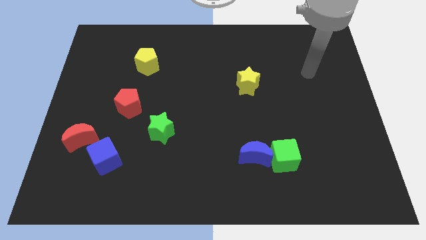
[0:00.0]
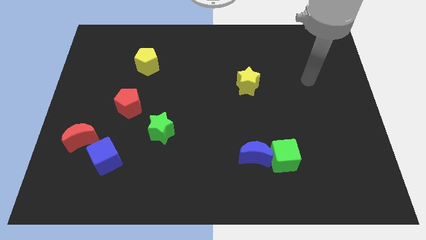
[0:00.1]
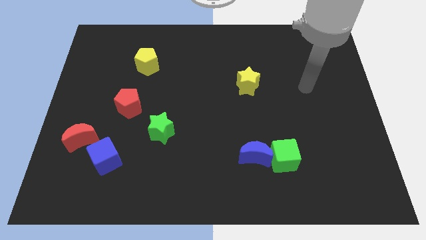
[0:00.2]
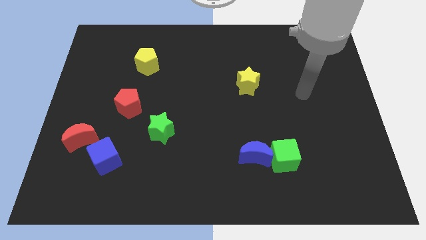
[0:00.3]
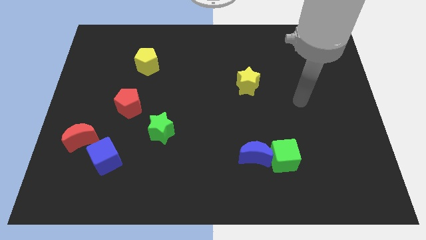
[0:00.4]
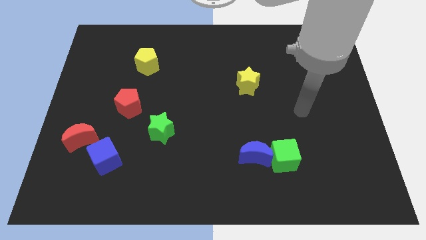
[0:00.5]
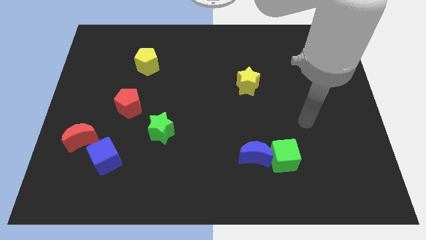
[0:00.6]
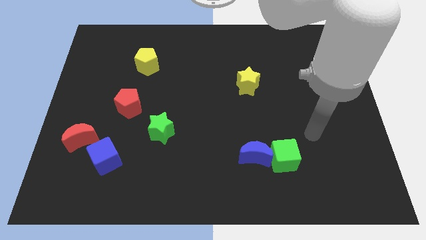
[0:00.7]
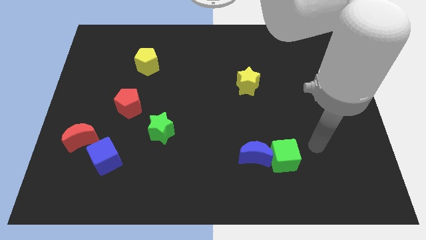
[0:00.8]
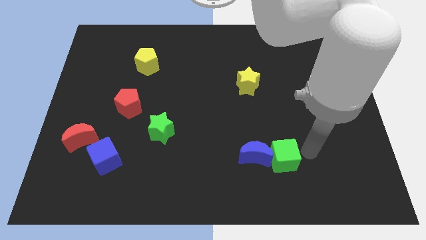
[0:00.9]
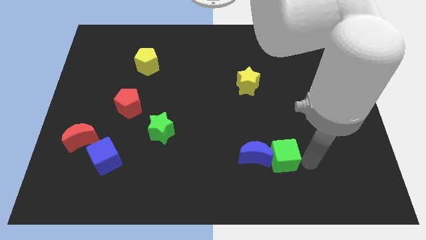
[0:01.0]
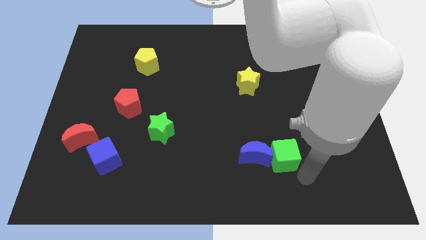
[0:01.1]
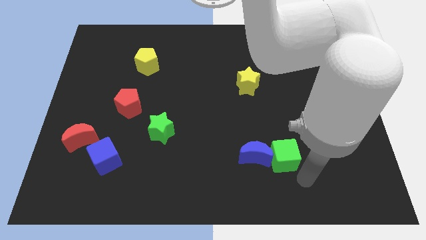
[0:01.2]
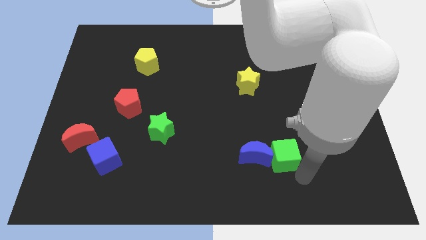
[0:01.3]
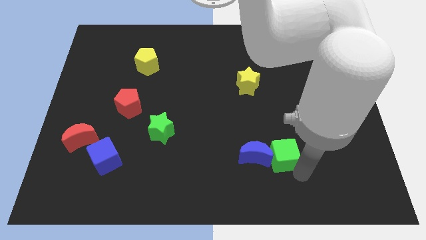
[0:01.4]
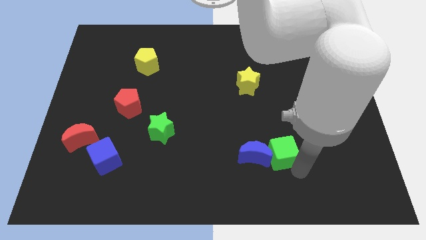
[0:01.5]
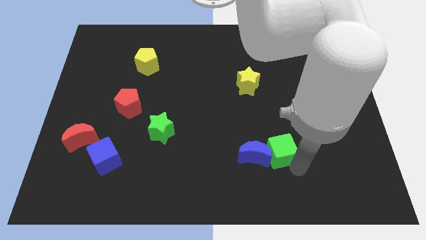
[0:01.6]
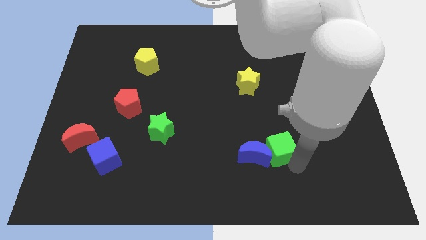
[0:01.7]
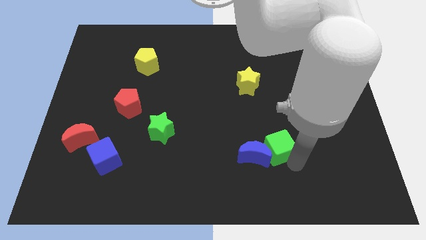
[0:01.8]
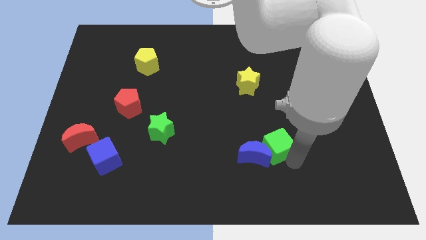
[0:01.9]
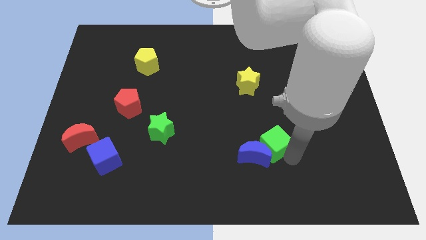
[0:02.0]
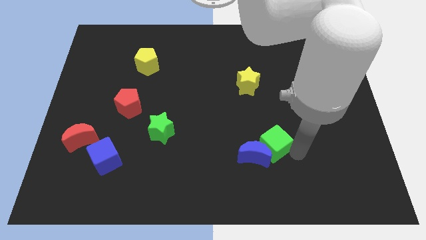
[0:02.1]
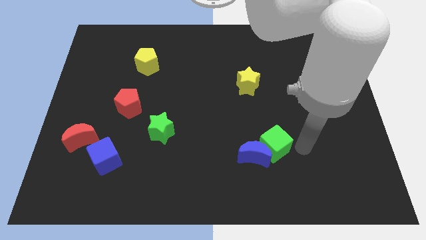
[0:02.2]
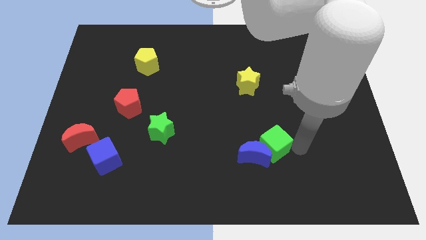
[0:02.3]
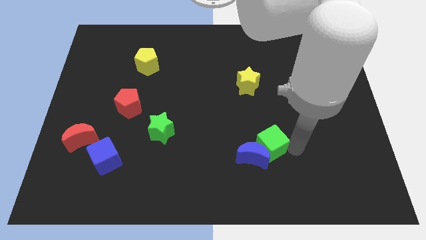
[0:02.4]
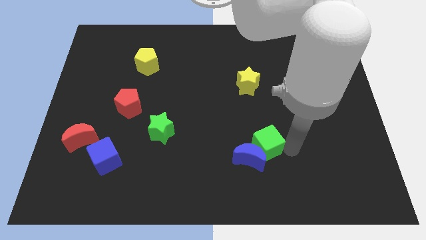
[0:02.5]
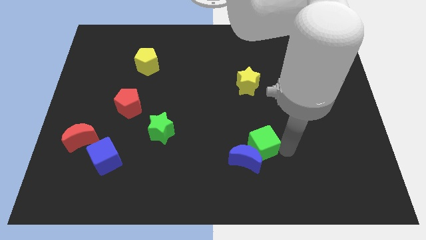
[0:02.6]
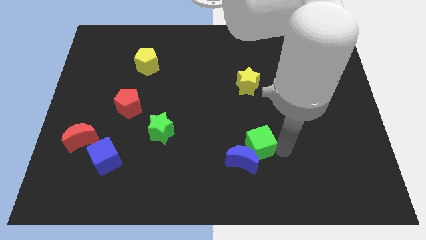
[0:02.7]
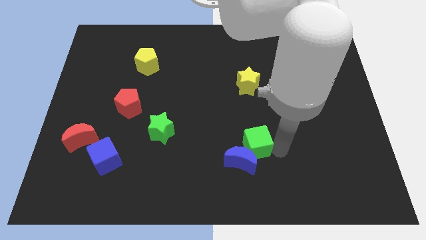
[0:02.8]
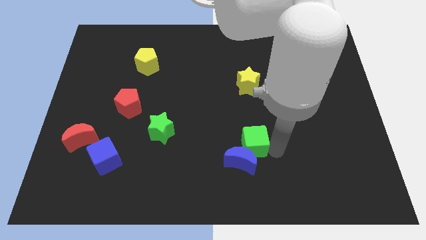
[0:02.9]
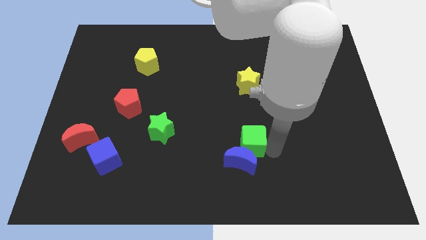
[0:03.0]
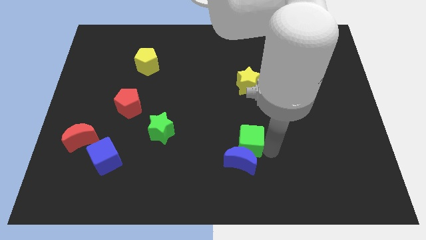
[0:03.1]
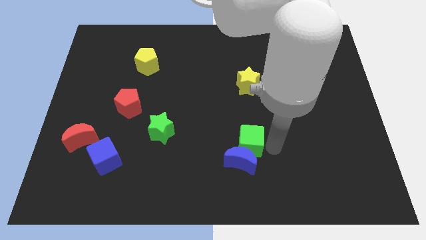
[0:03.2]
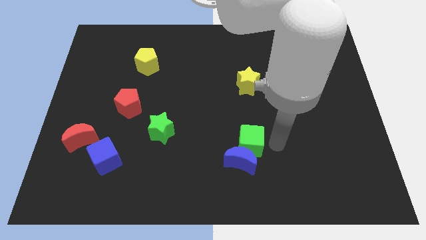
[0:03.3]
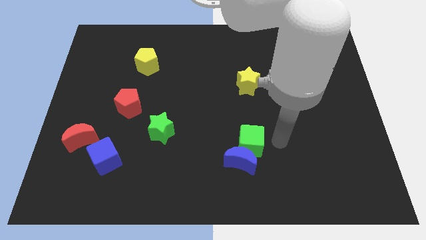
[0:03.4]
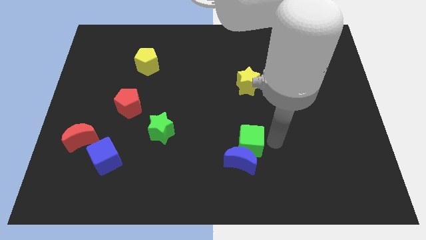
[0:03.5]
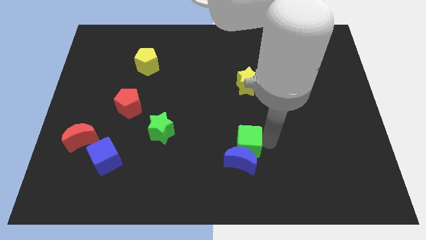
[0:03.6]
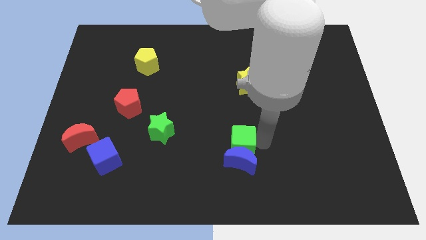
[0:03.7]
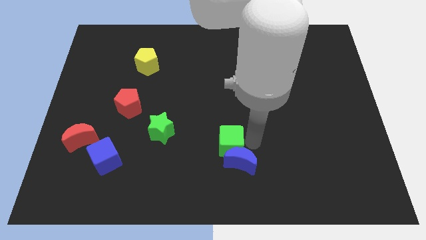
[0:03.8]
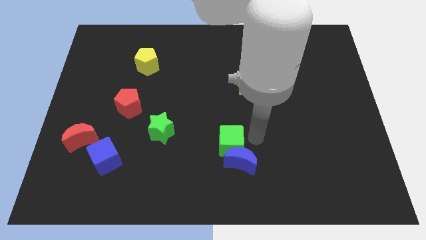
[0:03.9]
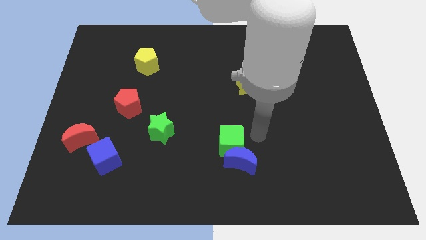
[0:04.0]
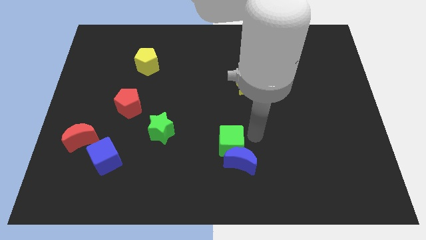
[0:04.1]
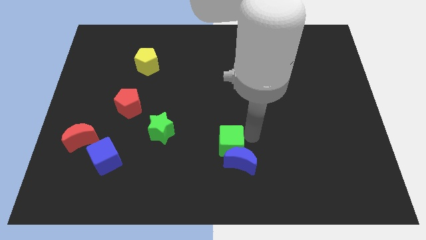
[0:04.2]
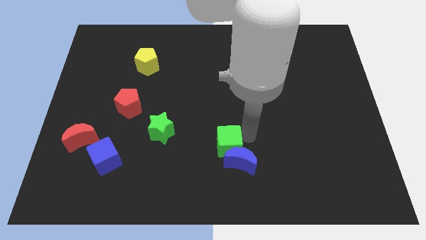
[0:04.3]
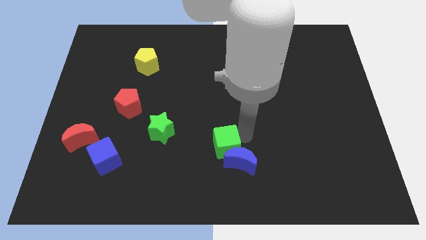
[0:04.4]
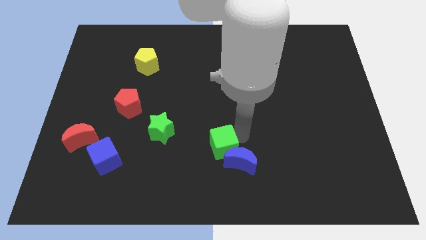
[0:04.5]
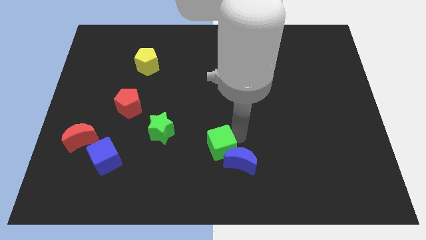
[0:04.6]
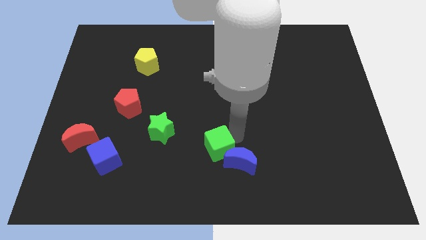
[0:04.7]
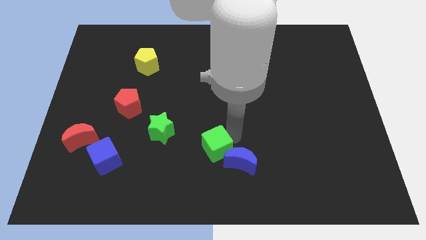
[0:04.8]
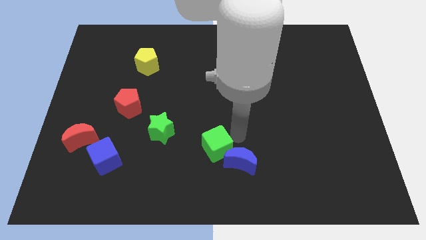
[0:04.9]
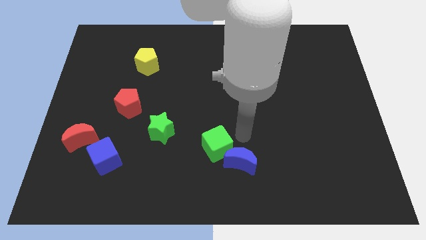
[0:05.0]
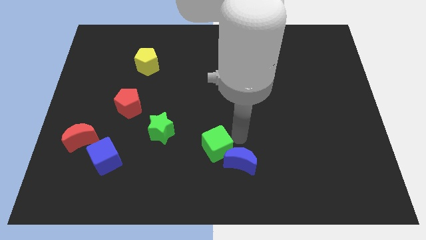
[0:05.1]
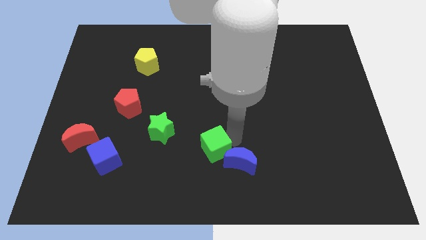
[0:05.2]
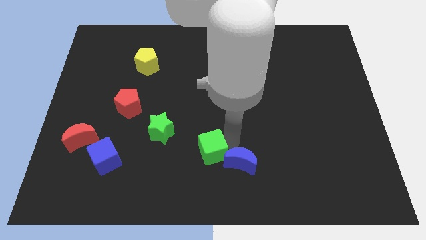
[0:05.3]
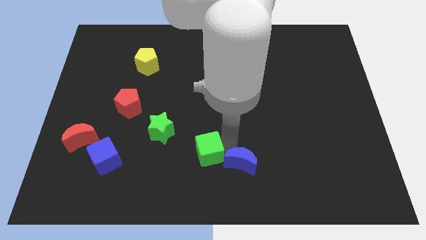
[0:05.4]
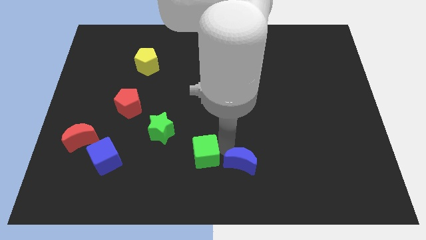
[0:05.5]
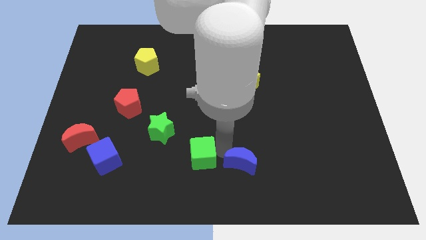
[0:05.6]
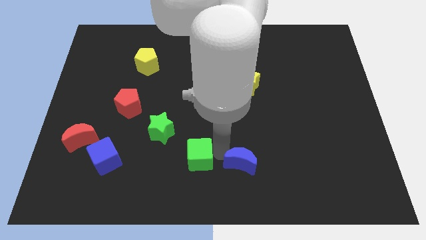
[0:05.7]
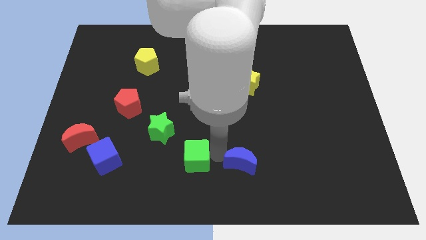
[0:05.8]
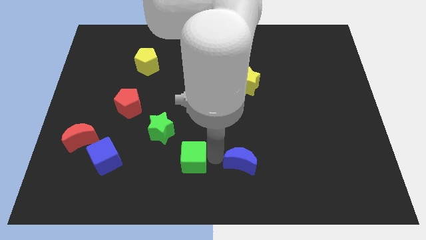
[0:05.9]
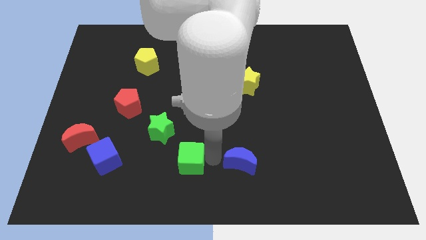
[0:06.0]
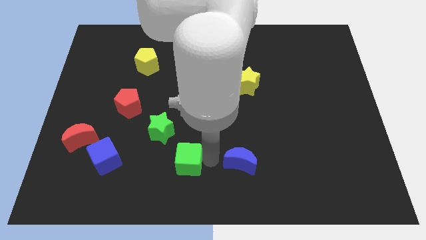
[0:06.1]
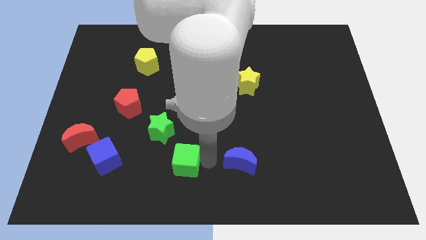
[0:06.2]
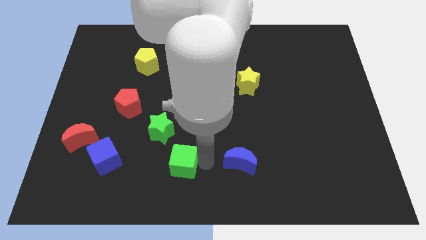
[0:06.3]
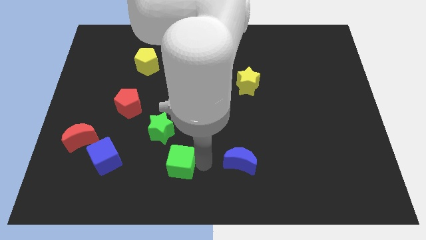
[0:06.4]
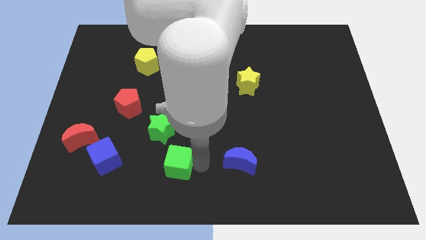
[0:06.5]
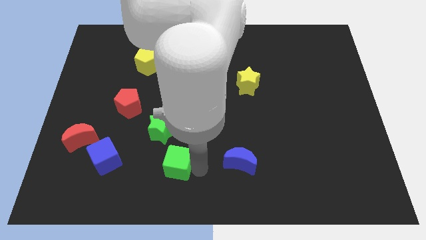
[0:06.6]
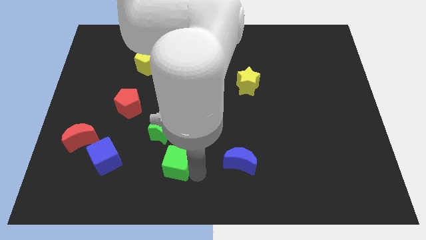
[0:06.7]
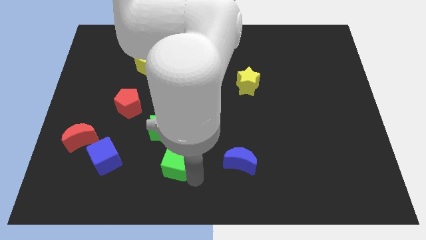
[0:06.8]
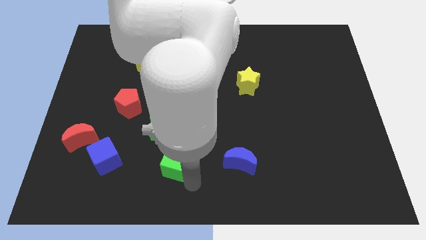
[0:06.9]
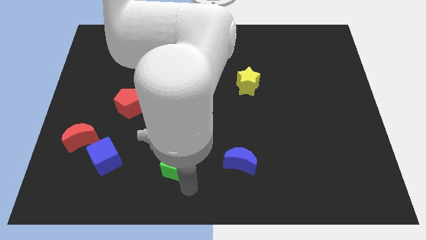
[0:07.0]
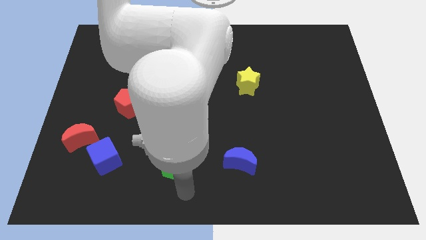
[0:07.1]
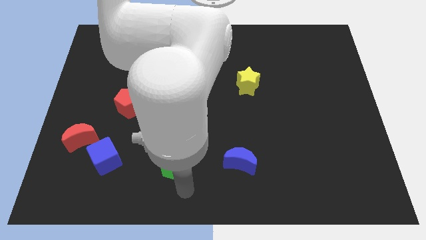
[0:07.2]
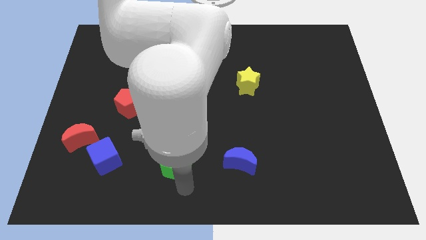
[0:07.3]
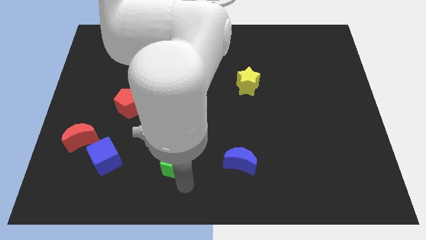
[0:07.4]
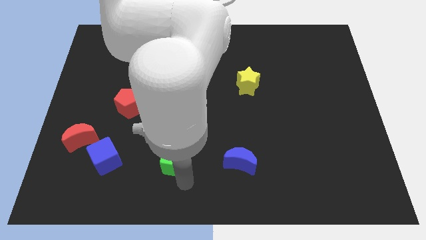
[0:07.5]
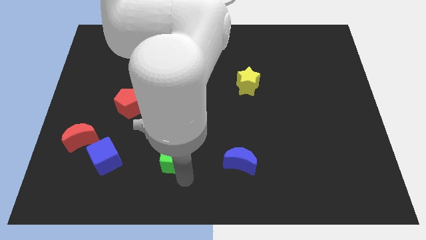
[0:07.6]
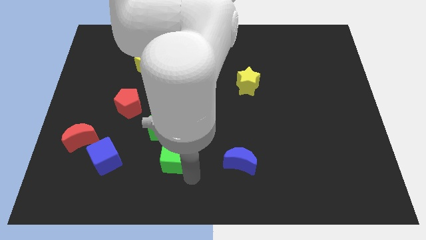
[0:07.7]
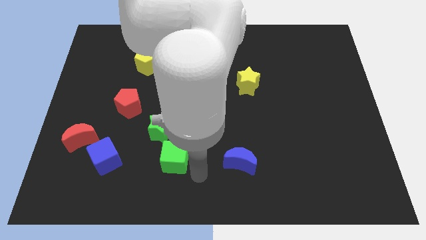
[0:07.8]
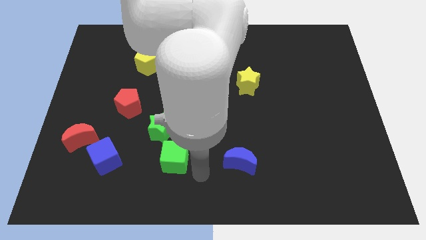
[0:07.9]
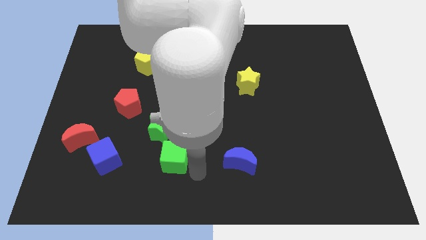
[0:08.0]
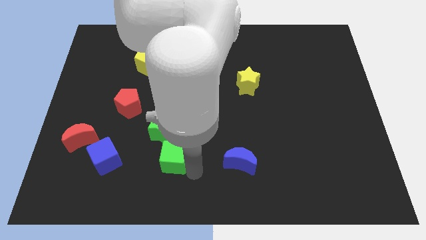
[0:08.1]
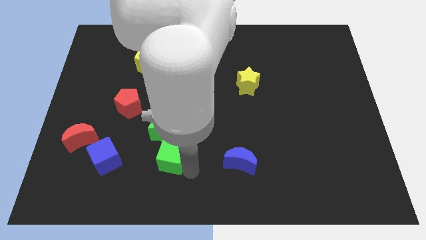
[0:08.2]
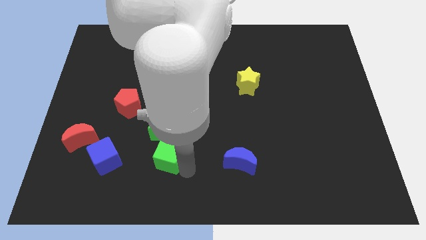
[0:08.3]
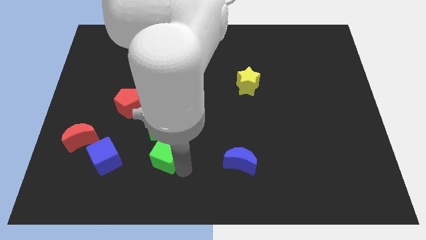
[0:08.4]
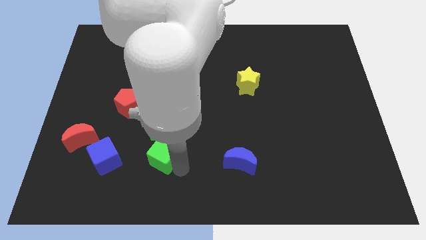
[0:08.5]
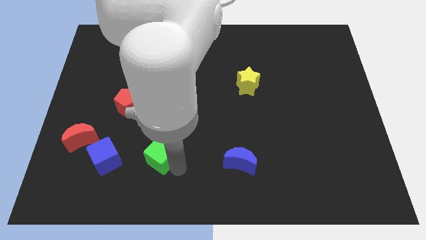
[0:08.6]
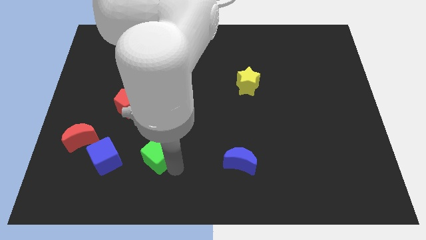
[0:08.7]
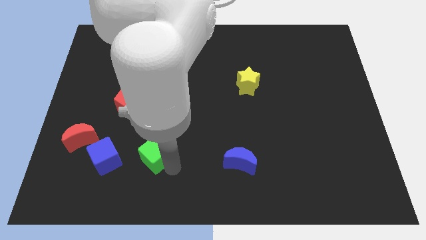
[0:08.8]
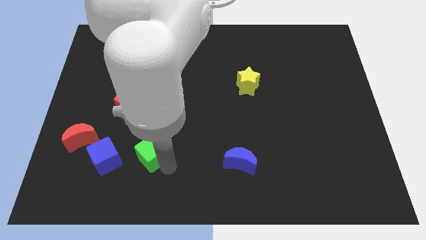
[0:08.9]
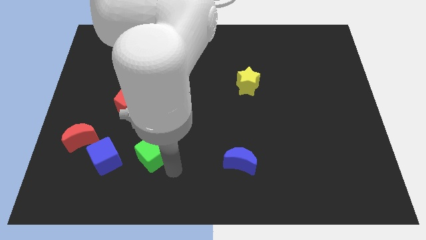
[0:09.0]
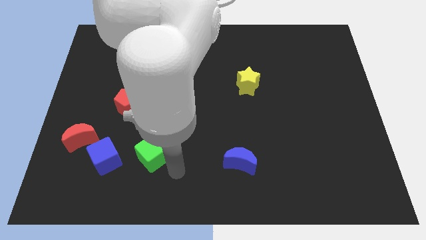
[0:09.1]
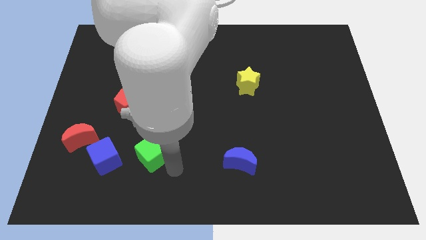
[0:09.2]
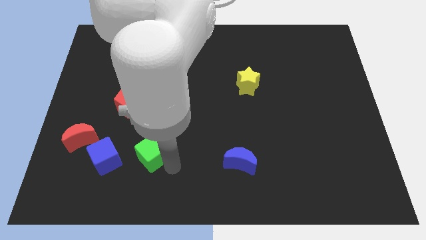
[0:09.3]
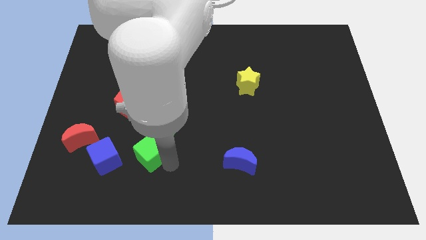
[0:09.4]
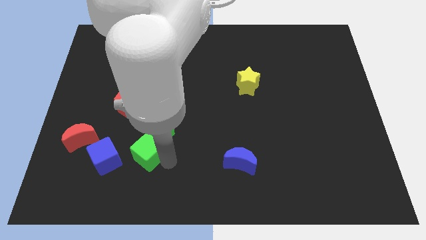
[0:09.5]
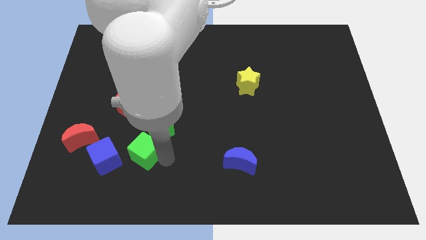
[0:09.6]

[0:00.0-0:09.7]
push the green cube to the right of the red moon
